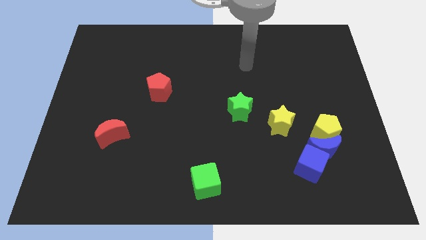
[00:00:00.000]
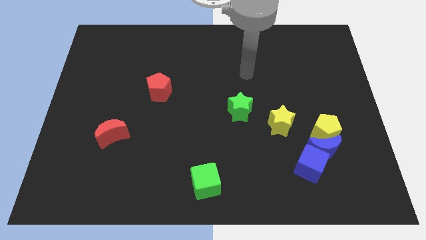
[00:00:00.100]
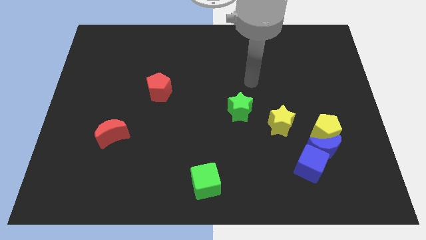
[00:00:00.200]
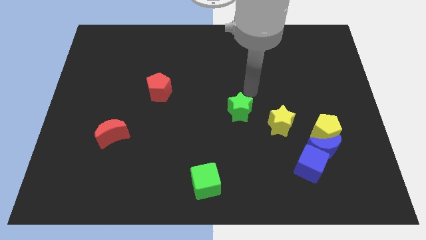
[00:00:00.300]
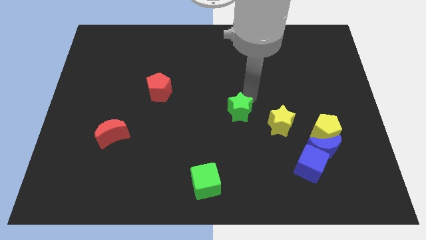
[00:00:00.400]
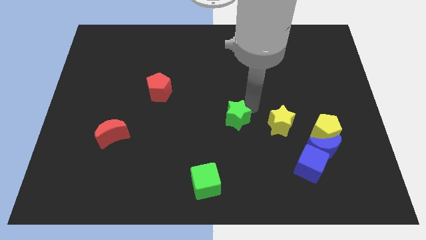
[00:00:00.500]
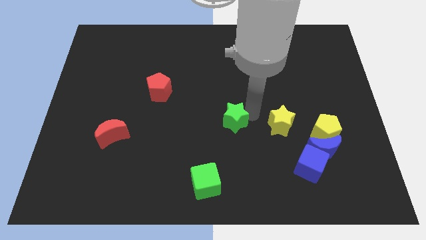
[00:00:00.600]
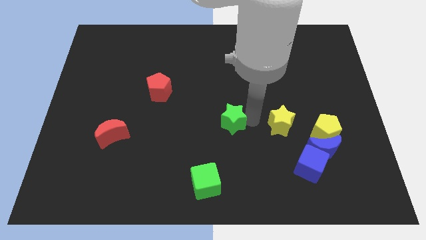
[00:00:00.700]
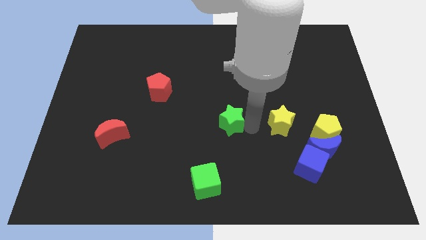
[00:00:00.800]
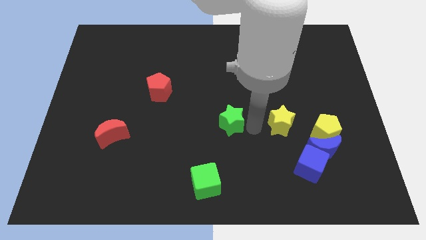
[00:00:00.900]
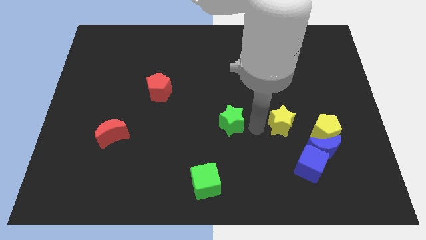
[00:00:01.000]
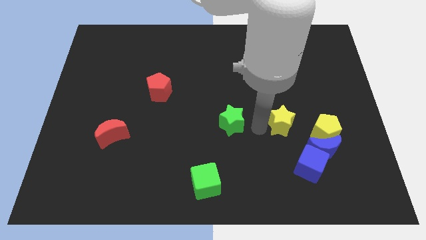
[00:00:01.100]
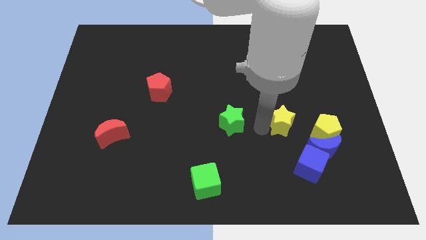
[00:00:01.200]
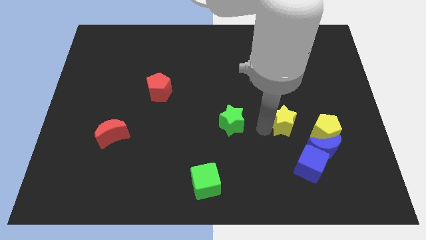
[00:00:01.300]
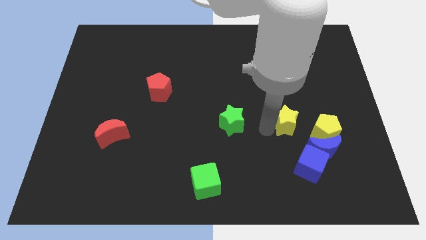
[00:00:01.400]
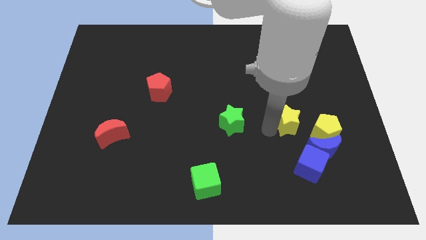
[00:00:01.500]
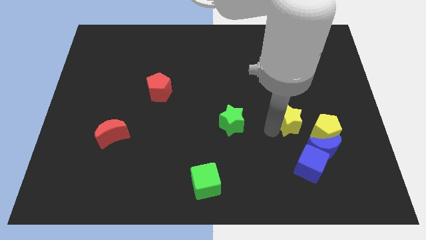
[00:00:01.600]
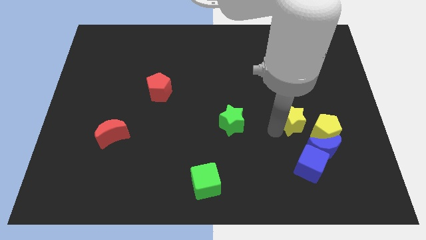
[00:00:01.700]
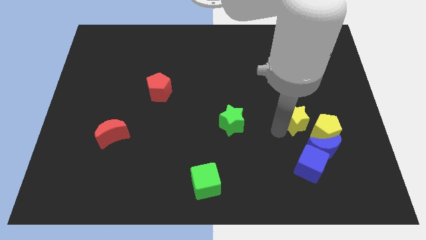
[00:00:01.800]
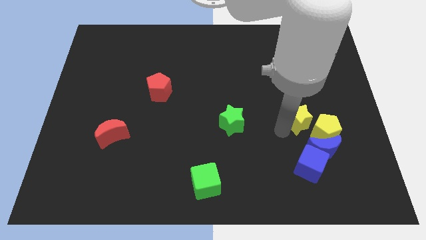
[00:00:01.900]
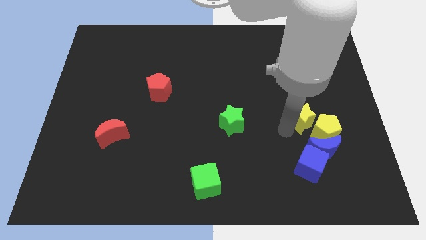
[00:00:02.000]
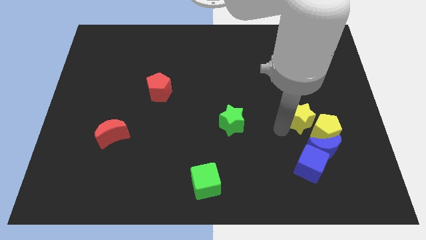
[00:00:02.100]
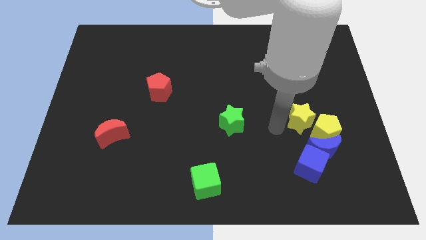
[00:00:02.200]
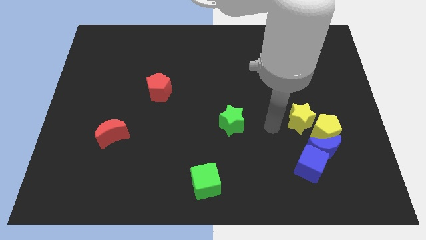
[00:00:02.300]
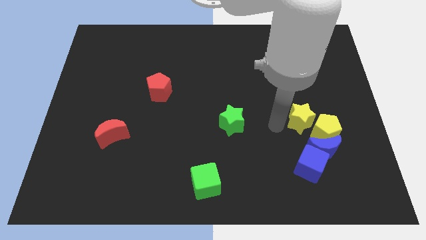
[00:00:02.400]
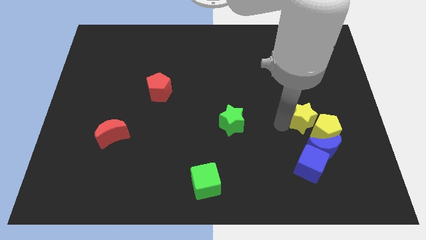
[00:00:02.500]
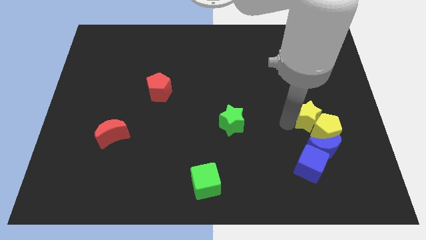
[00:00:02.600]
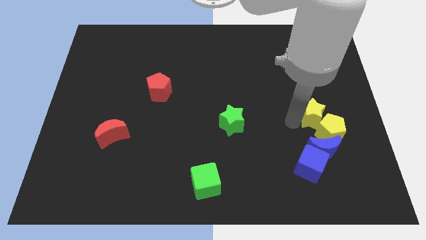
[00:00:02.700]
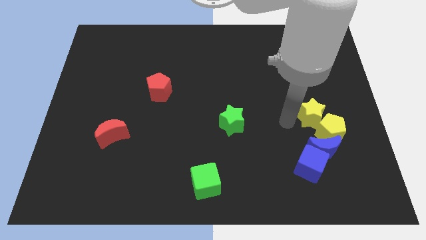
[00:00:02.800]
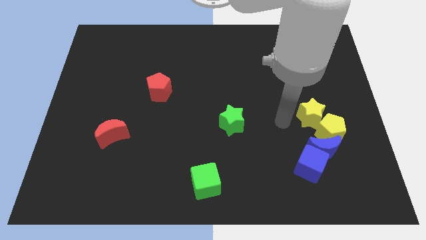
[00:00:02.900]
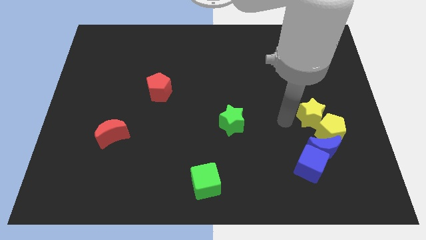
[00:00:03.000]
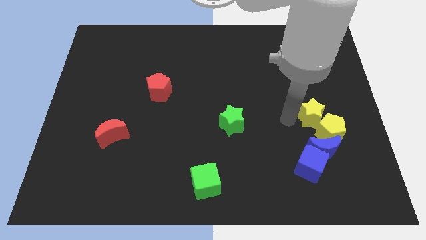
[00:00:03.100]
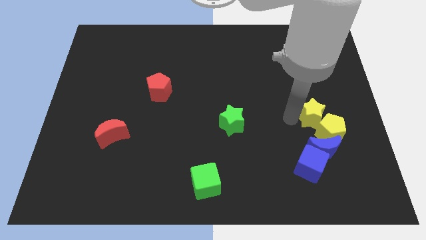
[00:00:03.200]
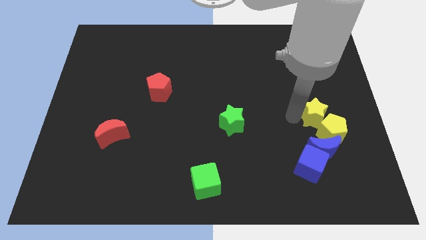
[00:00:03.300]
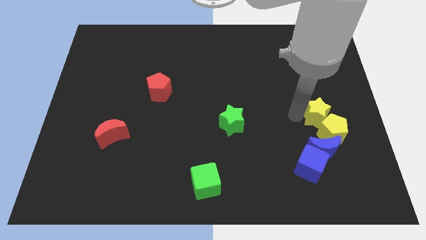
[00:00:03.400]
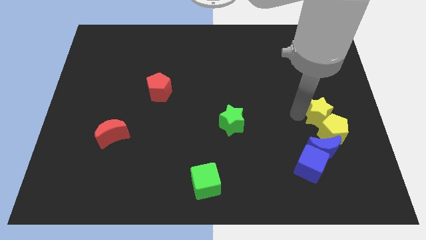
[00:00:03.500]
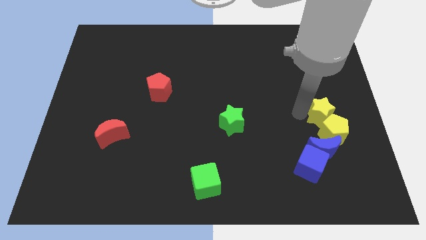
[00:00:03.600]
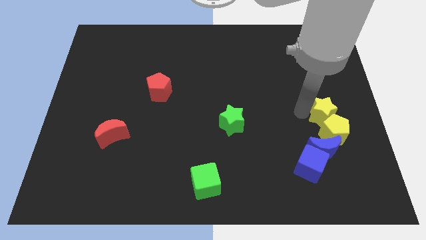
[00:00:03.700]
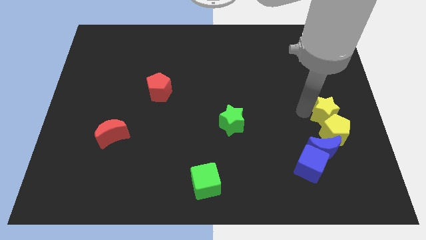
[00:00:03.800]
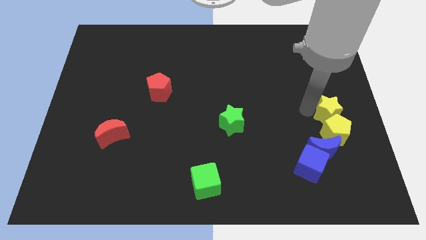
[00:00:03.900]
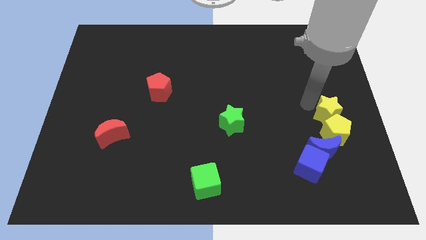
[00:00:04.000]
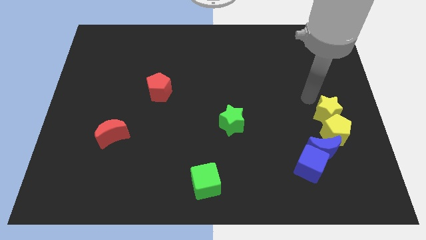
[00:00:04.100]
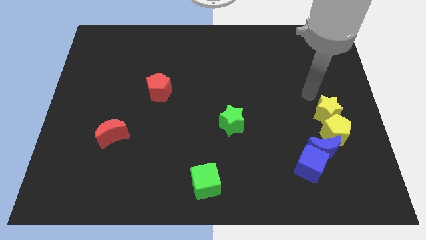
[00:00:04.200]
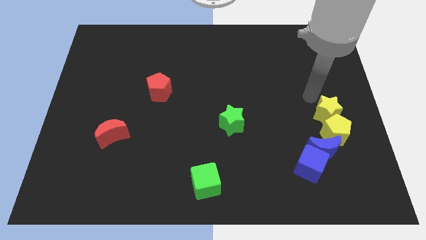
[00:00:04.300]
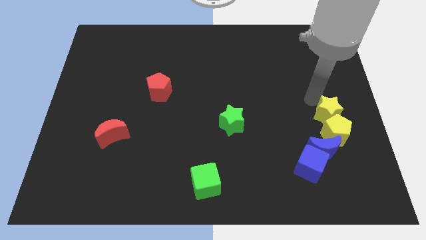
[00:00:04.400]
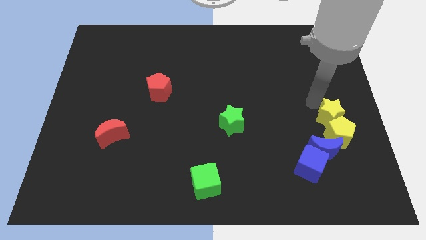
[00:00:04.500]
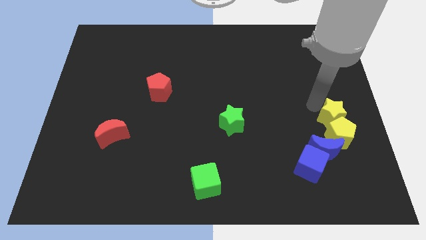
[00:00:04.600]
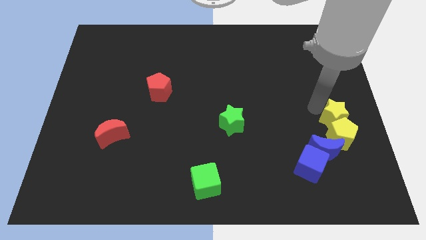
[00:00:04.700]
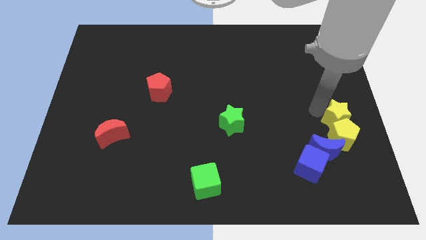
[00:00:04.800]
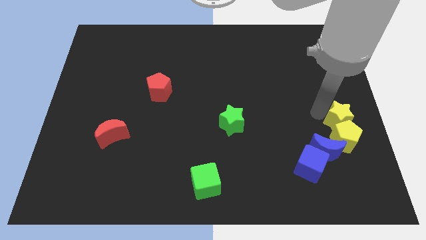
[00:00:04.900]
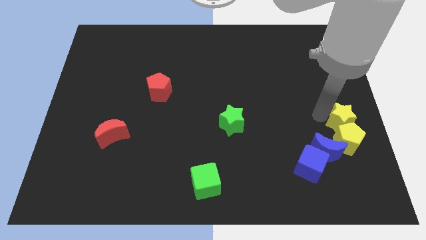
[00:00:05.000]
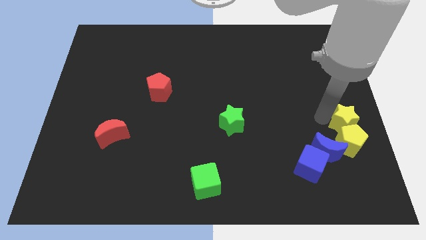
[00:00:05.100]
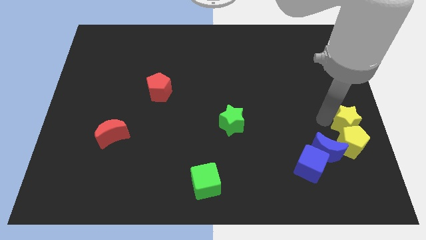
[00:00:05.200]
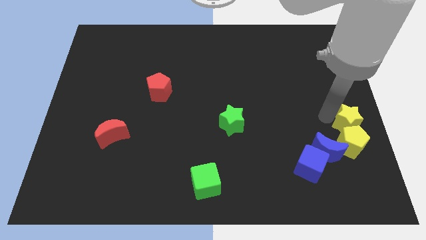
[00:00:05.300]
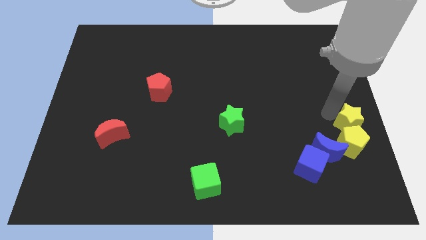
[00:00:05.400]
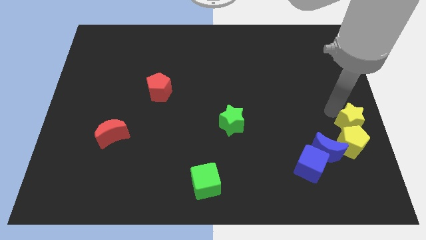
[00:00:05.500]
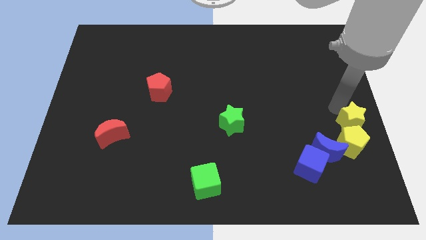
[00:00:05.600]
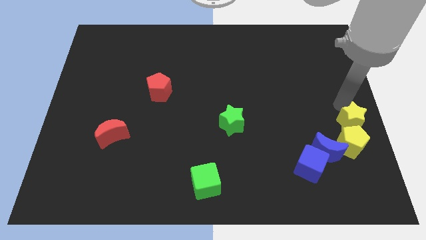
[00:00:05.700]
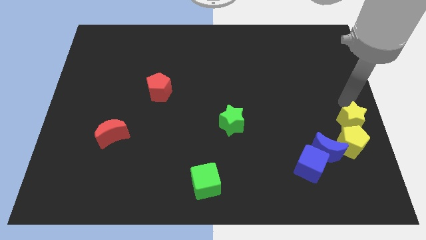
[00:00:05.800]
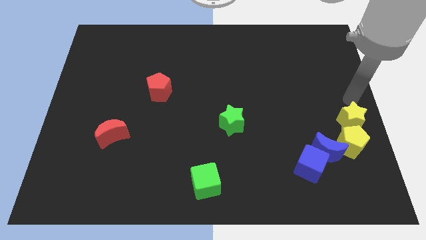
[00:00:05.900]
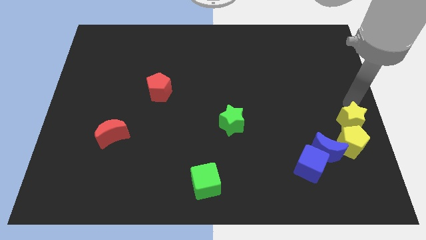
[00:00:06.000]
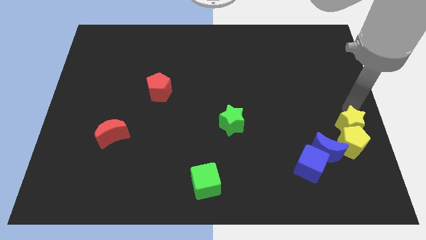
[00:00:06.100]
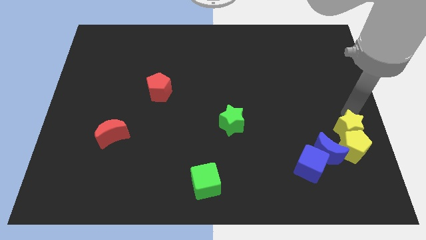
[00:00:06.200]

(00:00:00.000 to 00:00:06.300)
push the yellow star somewhat diagonally downwards and to the right

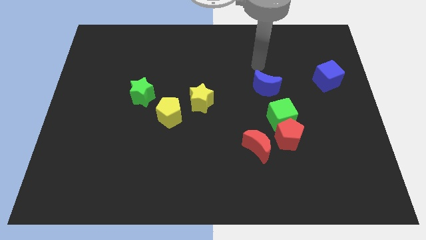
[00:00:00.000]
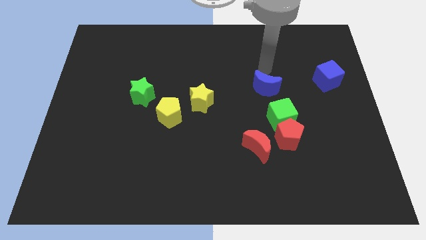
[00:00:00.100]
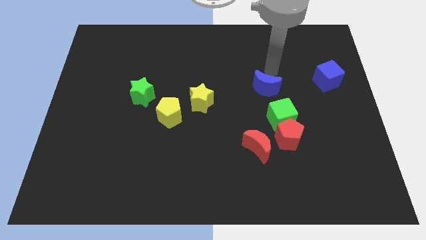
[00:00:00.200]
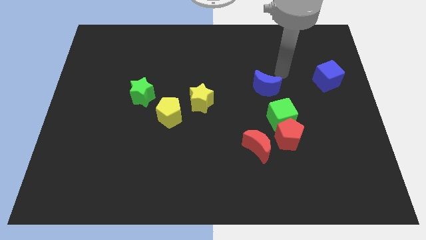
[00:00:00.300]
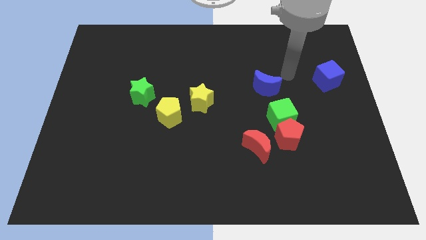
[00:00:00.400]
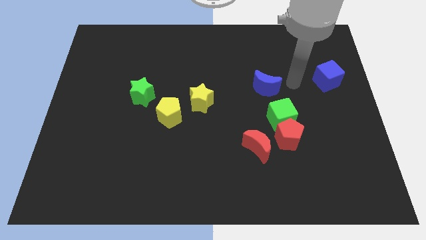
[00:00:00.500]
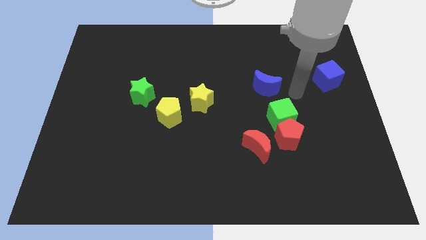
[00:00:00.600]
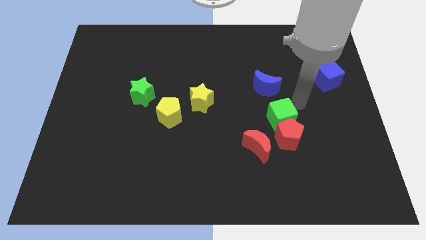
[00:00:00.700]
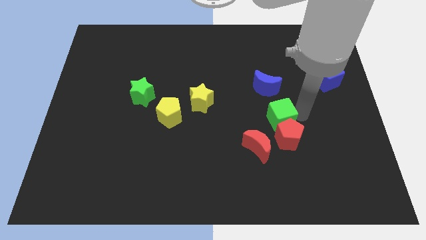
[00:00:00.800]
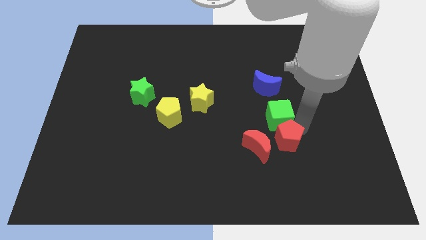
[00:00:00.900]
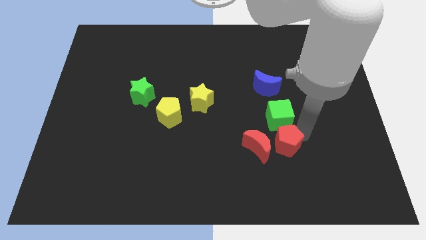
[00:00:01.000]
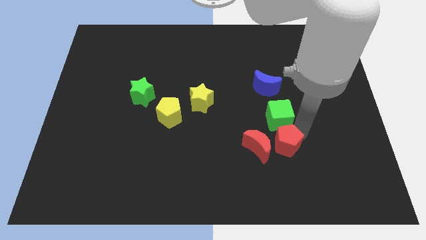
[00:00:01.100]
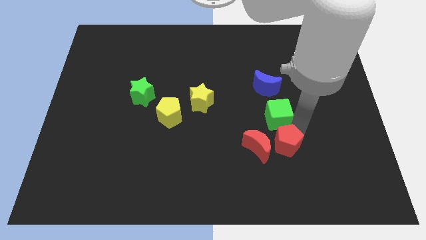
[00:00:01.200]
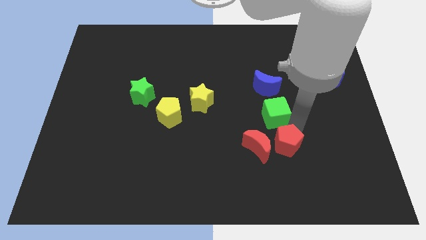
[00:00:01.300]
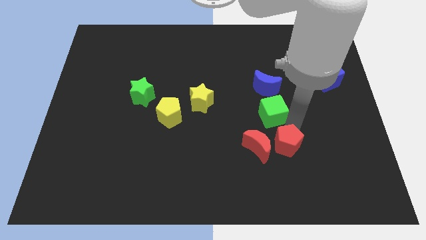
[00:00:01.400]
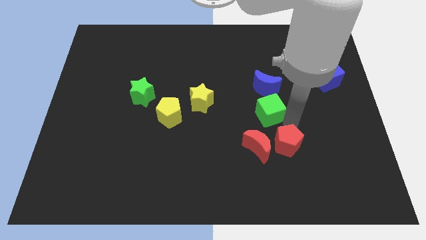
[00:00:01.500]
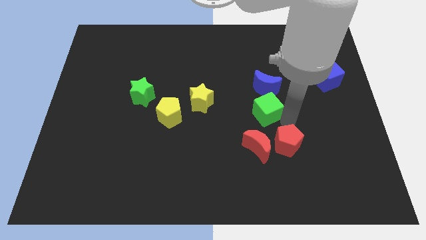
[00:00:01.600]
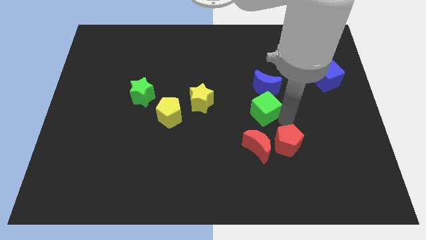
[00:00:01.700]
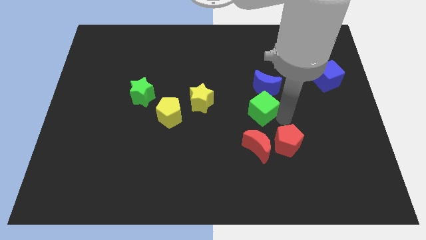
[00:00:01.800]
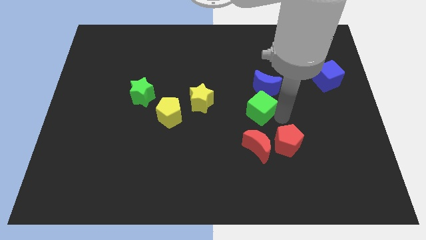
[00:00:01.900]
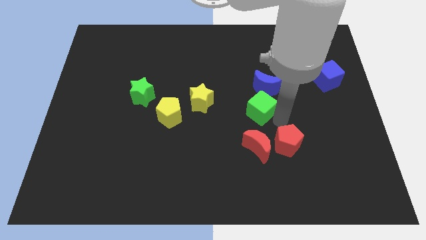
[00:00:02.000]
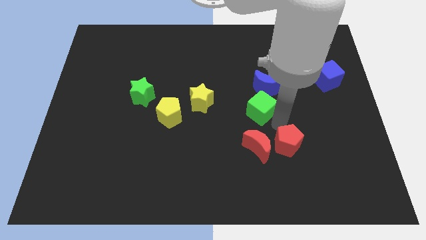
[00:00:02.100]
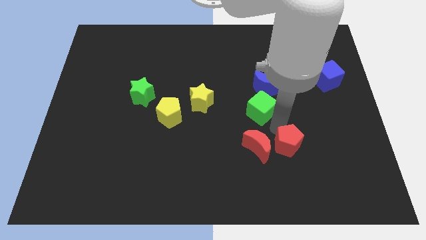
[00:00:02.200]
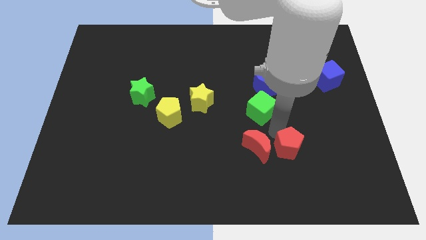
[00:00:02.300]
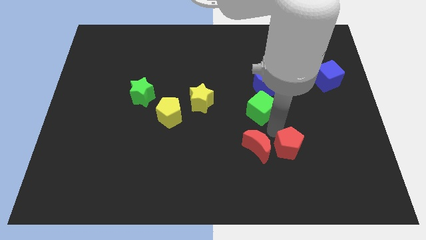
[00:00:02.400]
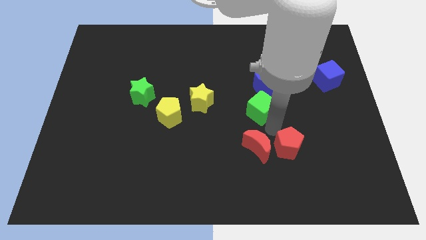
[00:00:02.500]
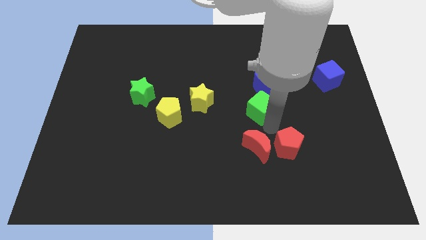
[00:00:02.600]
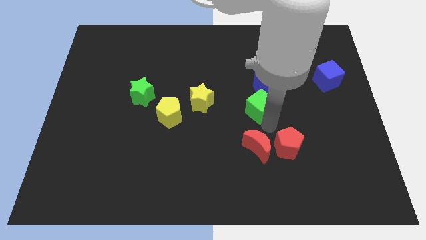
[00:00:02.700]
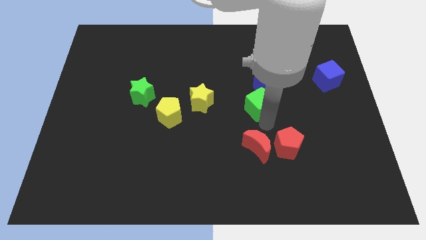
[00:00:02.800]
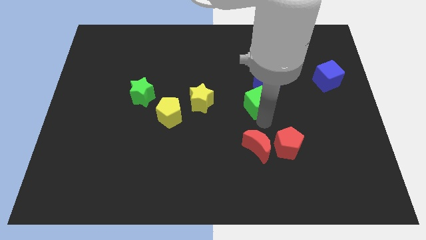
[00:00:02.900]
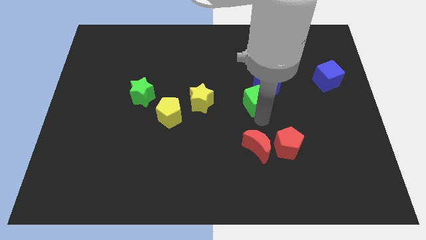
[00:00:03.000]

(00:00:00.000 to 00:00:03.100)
slide the green cube slightly diagonally upwards and to the left
